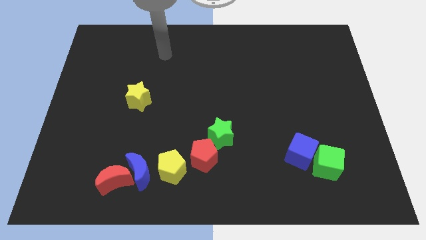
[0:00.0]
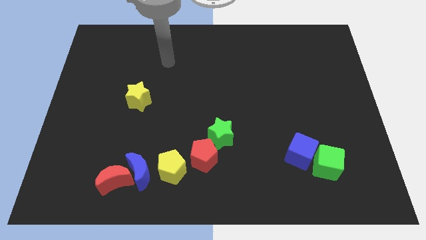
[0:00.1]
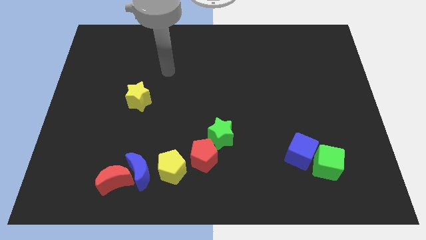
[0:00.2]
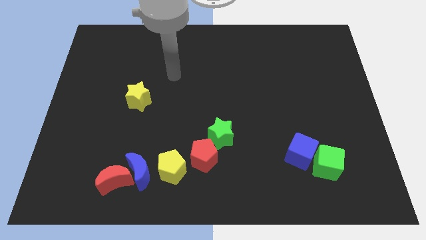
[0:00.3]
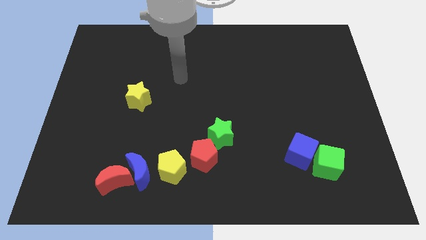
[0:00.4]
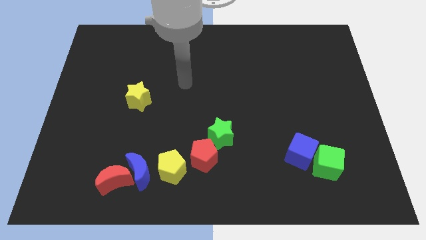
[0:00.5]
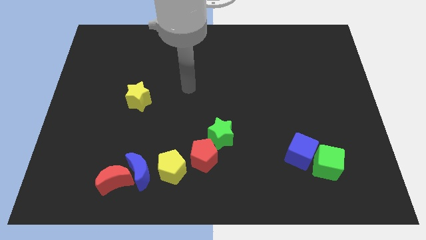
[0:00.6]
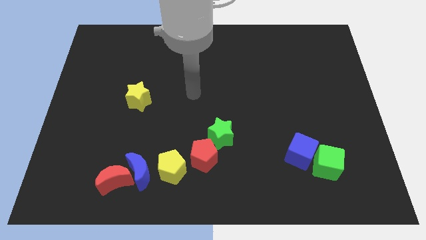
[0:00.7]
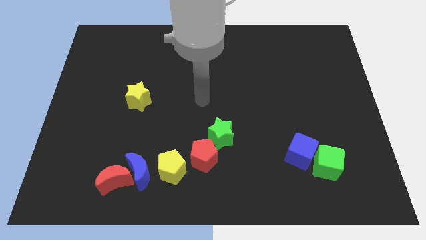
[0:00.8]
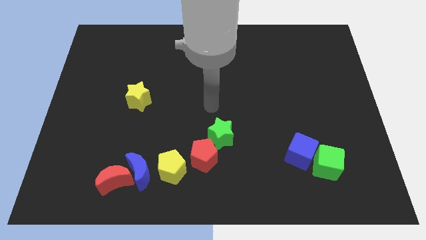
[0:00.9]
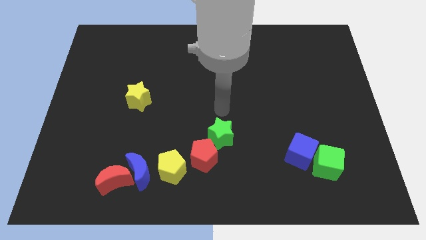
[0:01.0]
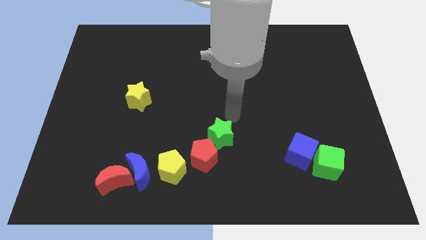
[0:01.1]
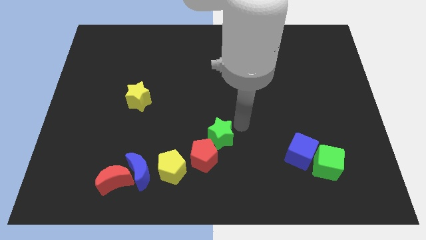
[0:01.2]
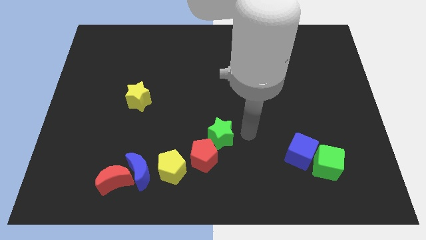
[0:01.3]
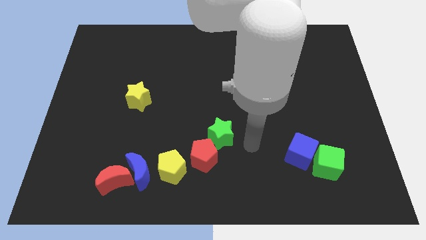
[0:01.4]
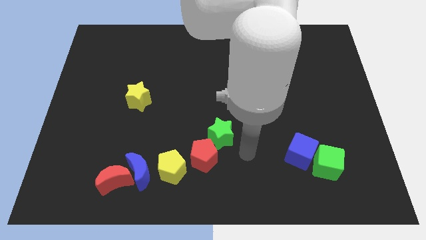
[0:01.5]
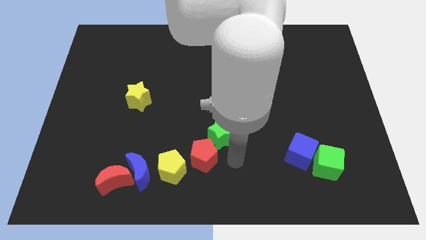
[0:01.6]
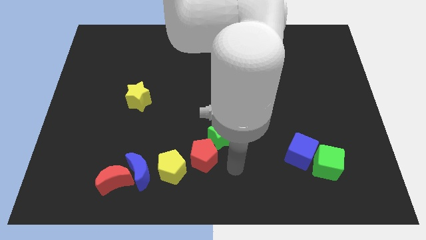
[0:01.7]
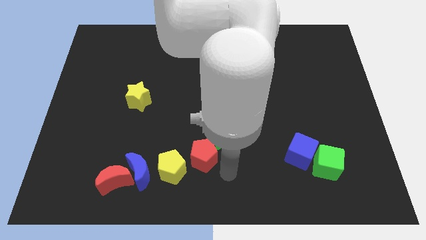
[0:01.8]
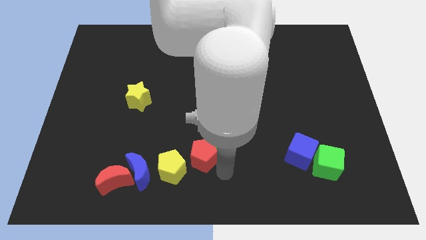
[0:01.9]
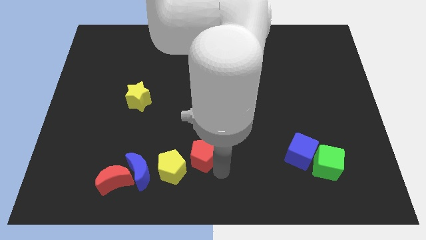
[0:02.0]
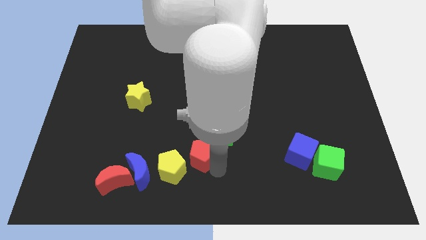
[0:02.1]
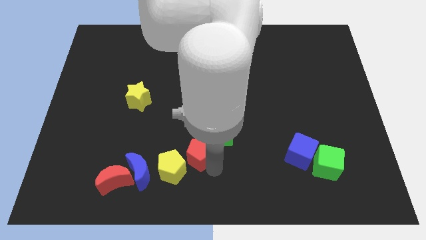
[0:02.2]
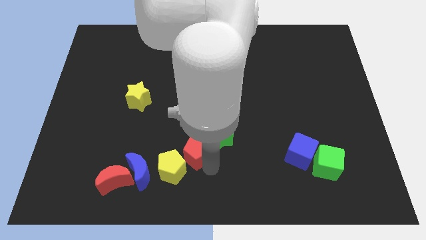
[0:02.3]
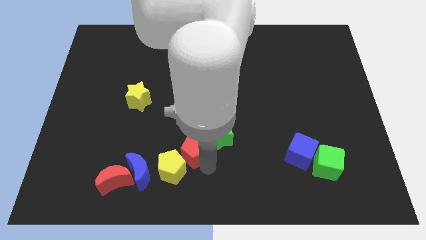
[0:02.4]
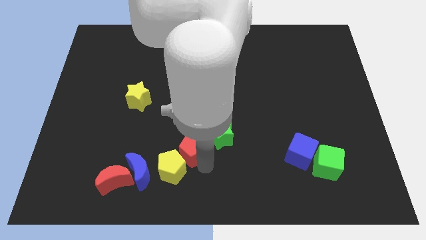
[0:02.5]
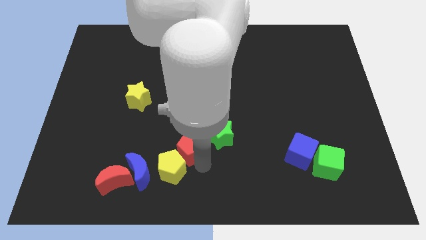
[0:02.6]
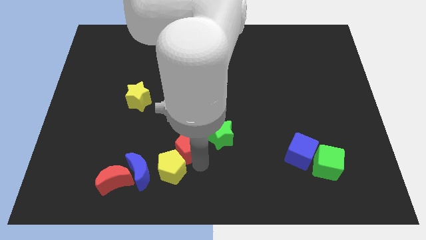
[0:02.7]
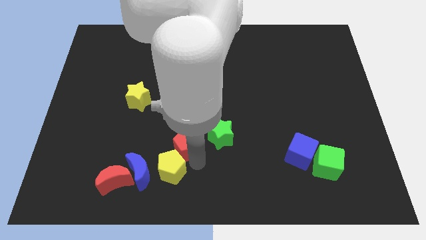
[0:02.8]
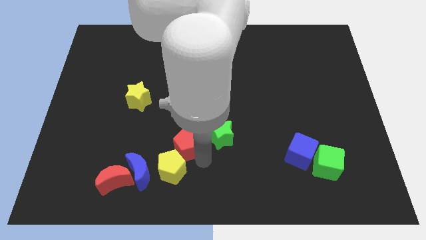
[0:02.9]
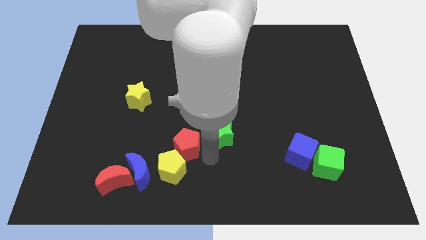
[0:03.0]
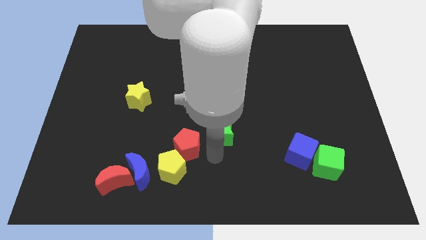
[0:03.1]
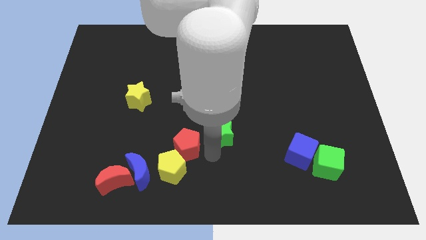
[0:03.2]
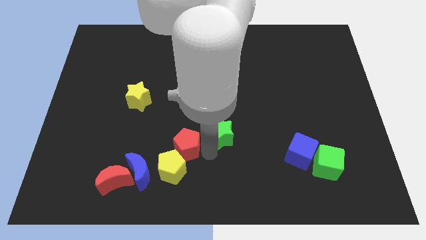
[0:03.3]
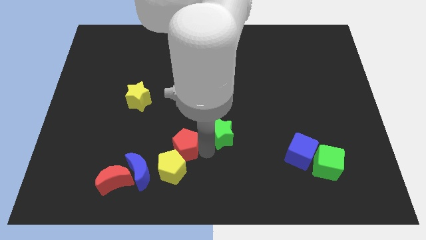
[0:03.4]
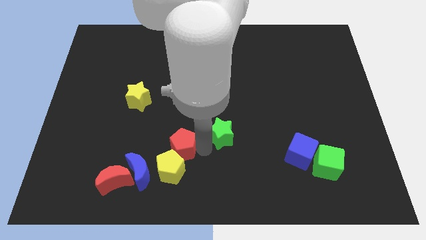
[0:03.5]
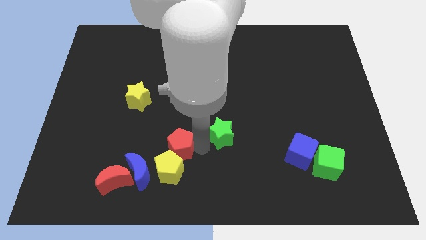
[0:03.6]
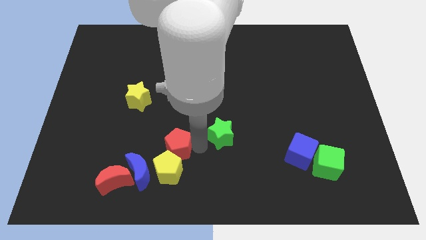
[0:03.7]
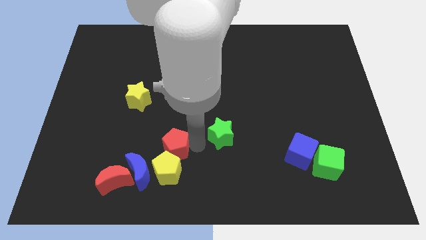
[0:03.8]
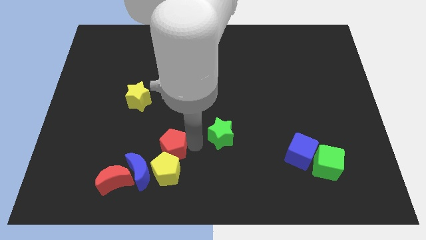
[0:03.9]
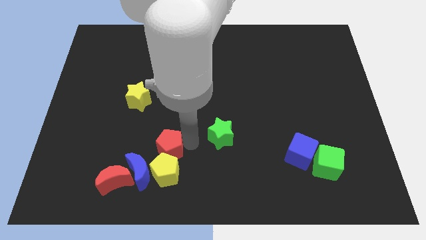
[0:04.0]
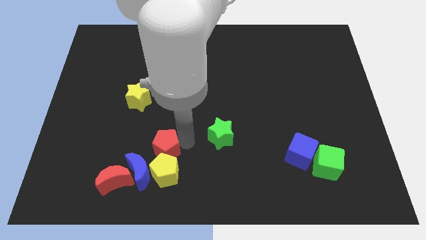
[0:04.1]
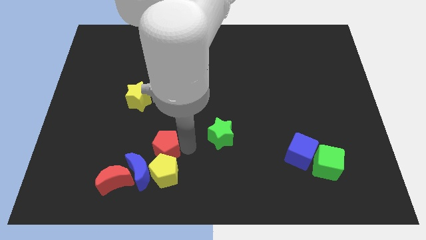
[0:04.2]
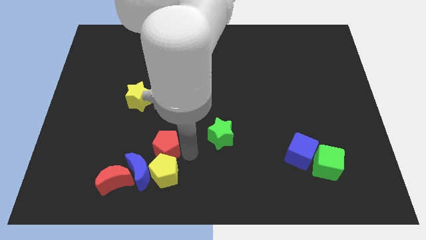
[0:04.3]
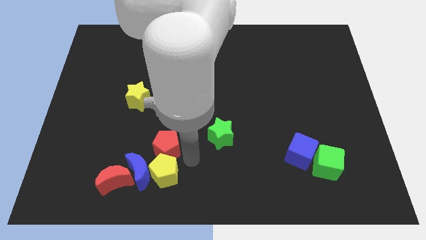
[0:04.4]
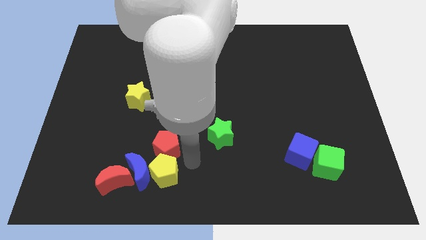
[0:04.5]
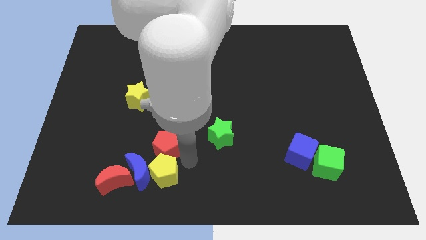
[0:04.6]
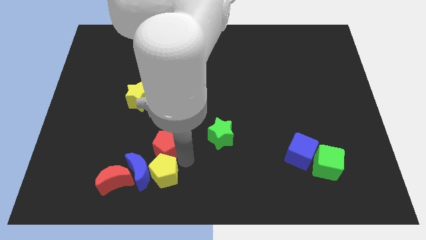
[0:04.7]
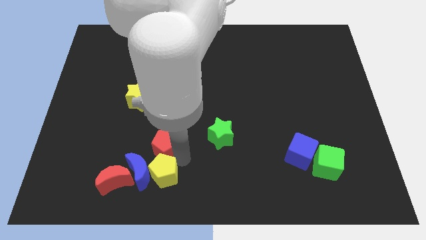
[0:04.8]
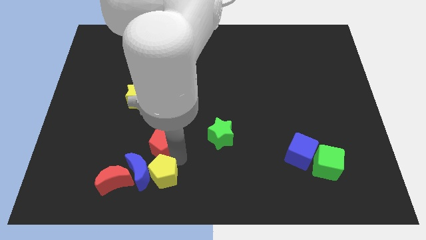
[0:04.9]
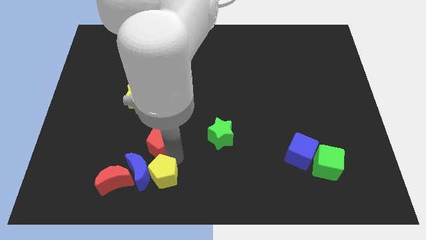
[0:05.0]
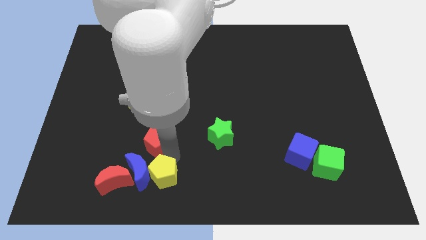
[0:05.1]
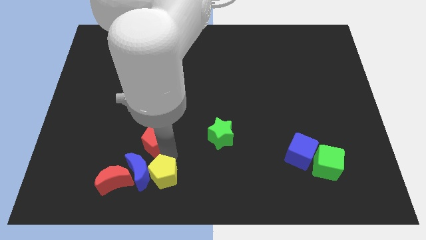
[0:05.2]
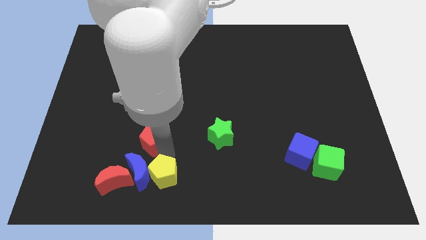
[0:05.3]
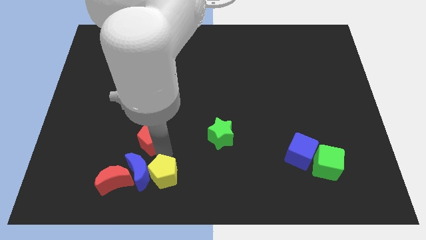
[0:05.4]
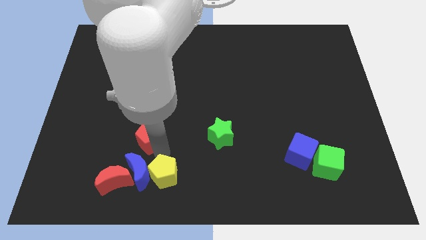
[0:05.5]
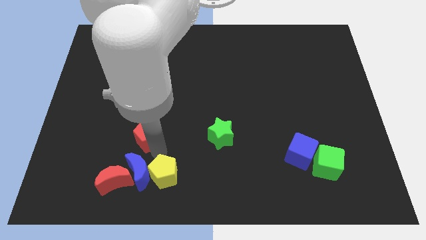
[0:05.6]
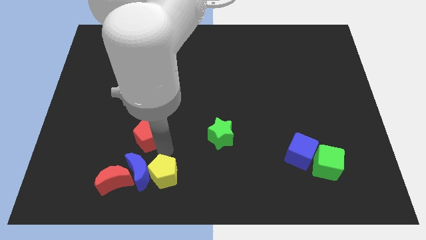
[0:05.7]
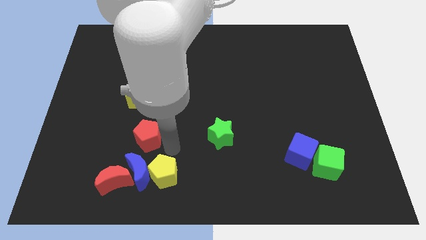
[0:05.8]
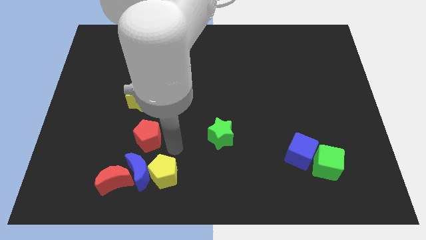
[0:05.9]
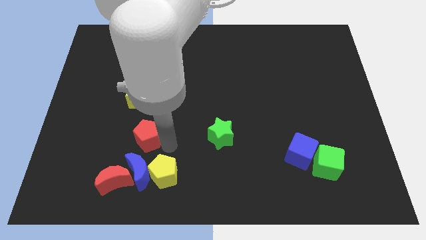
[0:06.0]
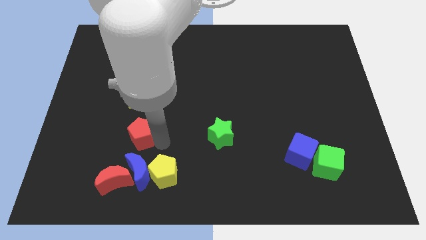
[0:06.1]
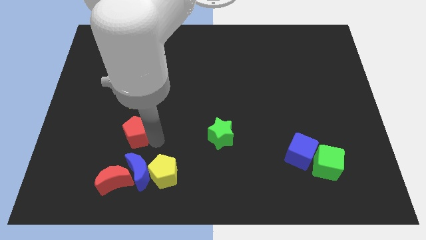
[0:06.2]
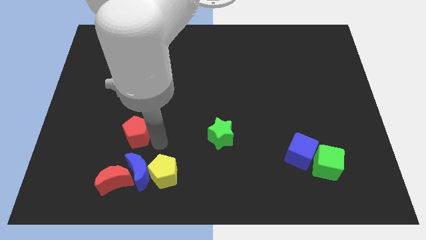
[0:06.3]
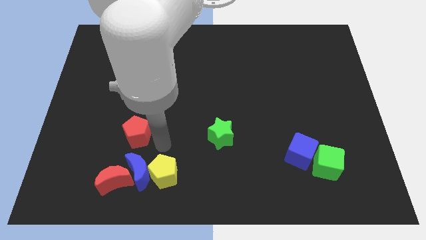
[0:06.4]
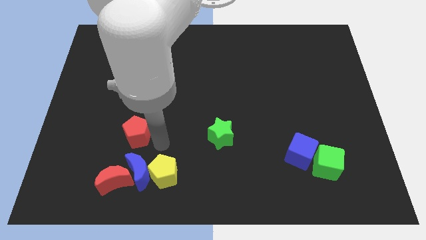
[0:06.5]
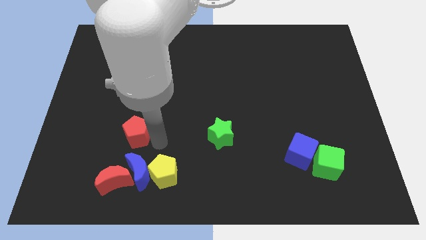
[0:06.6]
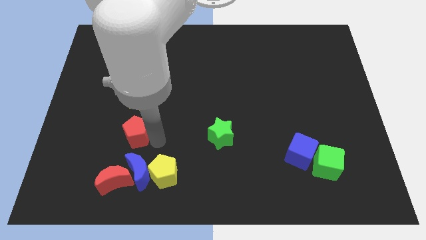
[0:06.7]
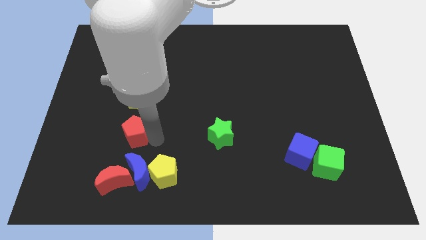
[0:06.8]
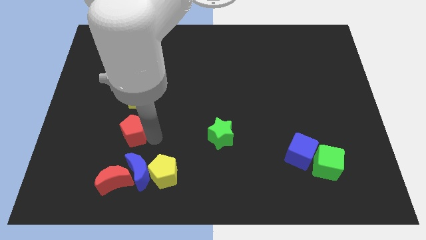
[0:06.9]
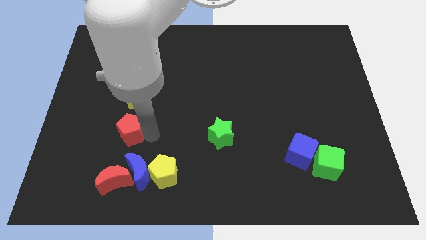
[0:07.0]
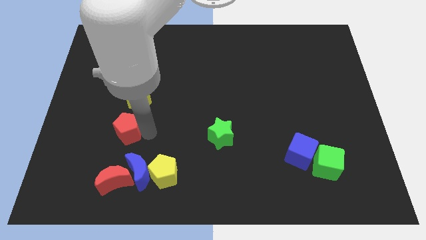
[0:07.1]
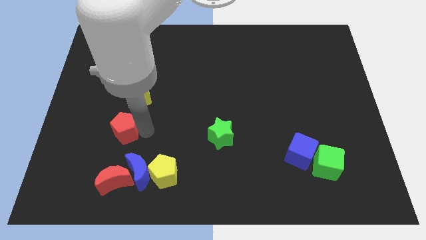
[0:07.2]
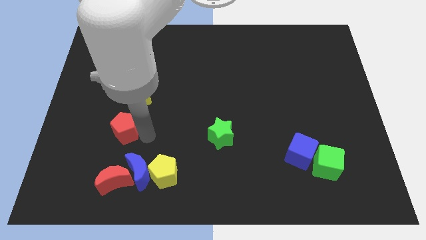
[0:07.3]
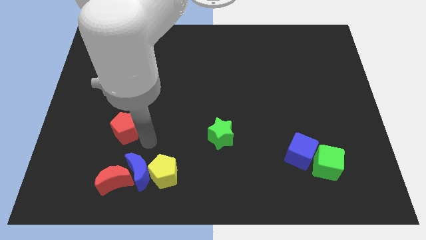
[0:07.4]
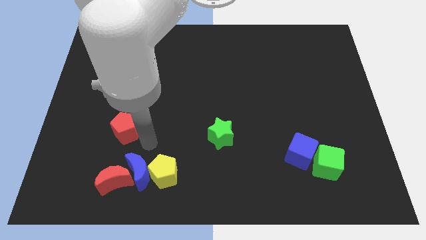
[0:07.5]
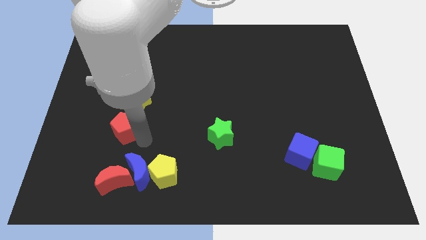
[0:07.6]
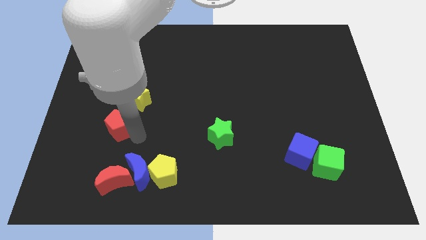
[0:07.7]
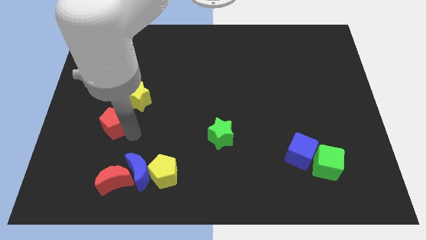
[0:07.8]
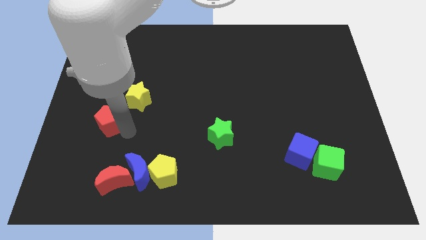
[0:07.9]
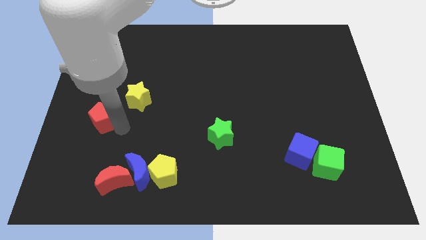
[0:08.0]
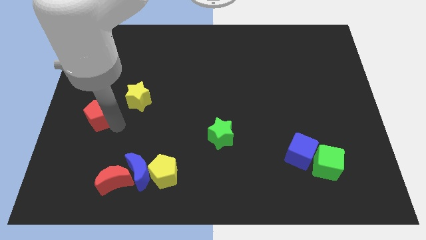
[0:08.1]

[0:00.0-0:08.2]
move the red pentagon to the left side of the board
